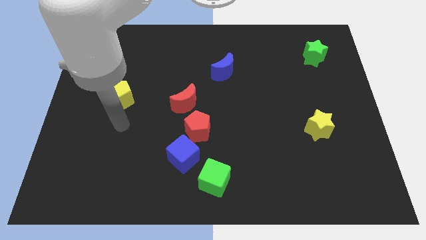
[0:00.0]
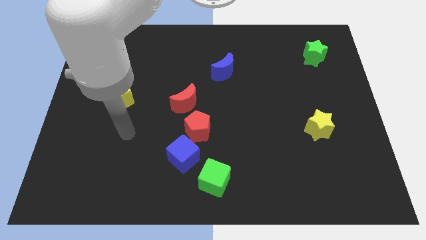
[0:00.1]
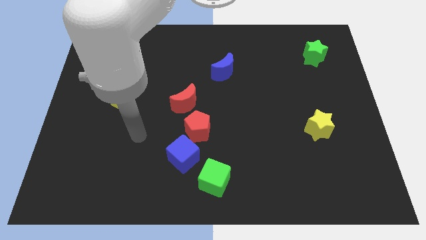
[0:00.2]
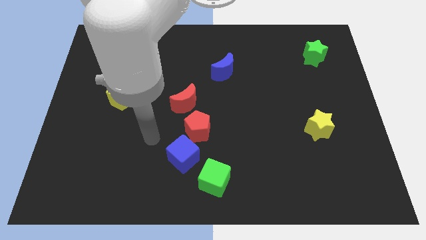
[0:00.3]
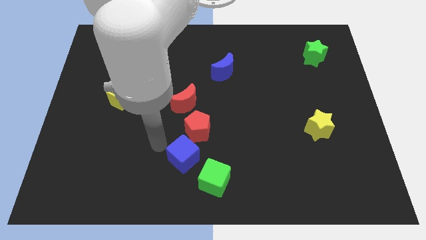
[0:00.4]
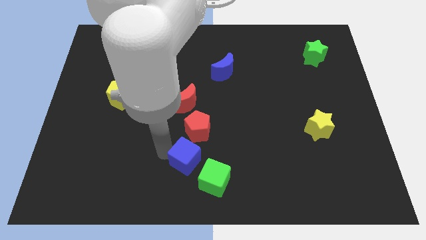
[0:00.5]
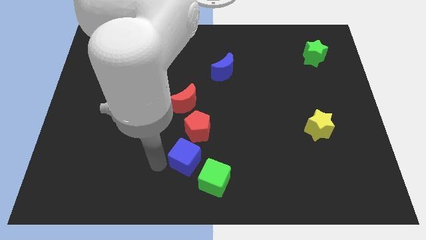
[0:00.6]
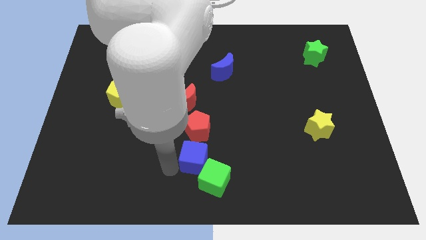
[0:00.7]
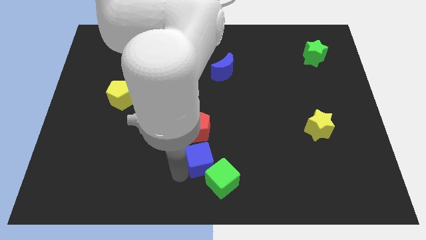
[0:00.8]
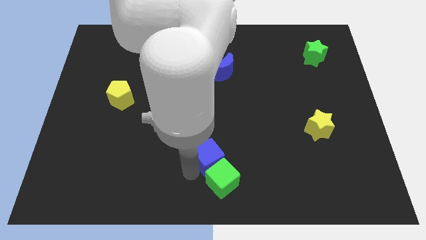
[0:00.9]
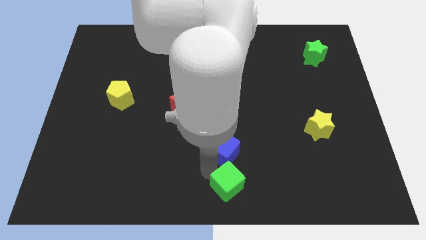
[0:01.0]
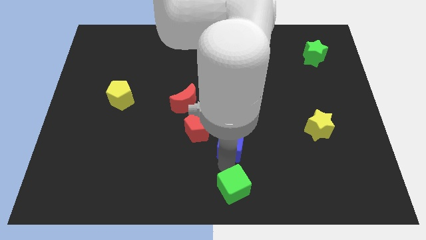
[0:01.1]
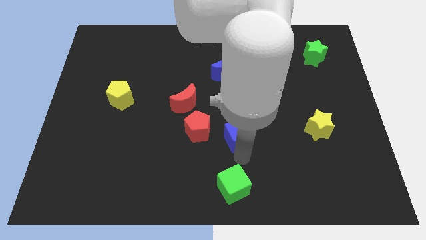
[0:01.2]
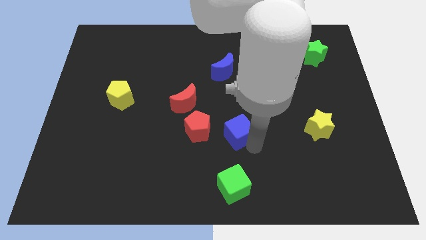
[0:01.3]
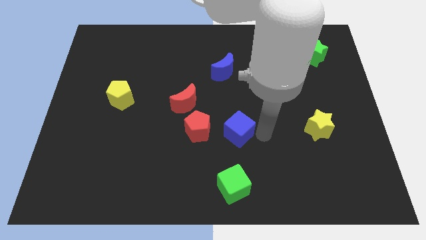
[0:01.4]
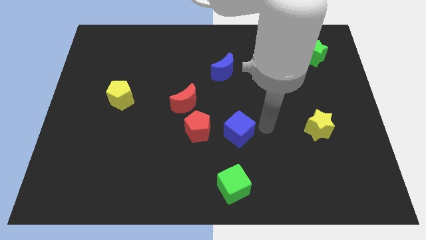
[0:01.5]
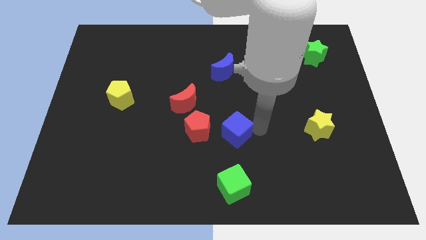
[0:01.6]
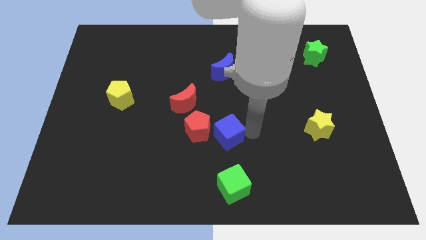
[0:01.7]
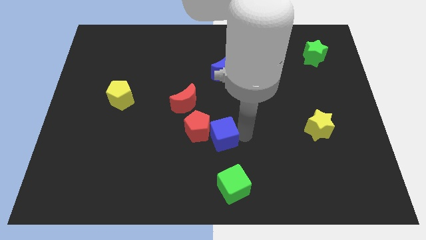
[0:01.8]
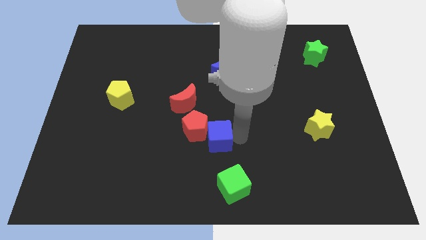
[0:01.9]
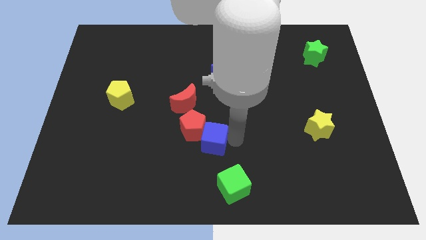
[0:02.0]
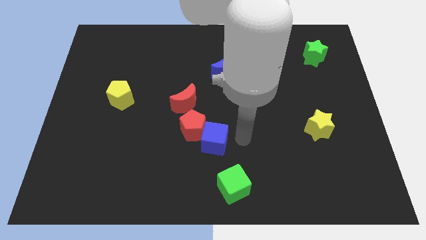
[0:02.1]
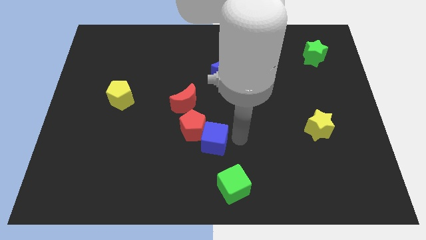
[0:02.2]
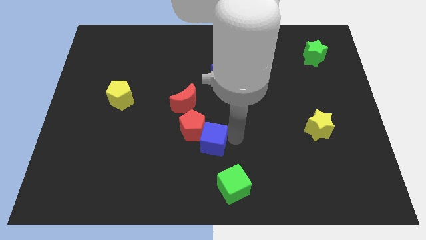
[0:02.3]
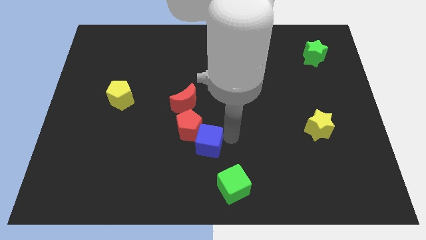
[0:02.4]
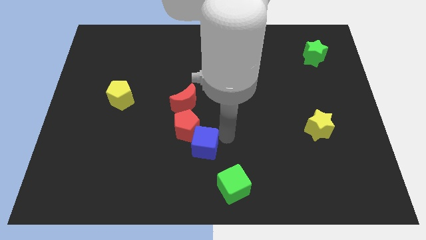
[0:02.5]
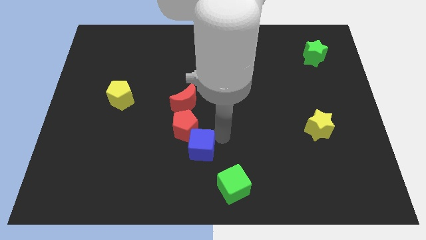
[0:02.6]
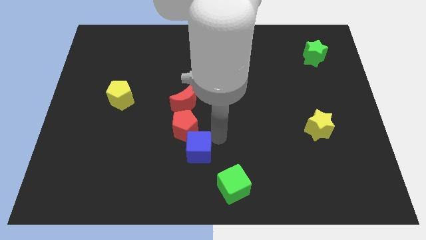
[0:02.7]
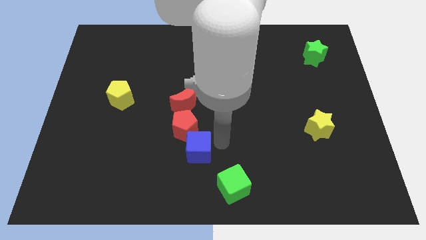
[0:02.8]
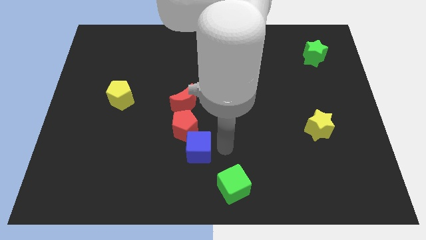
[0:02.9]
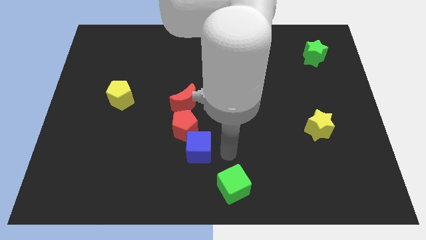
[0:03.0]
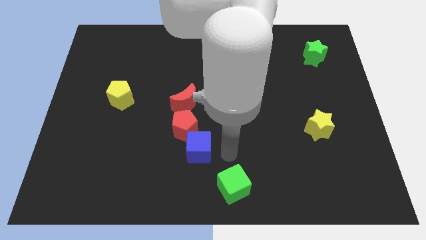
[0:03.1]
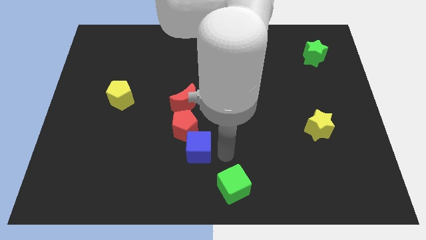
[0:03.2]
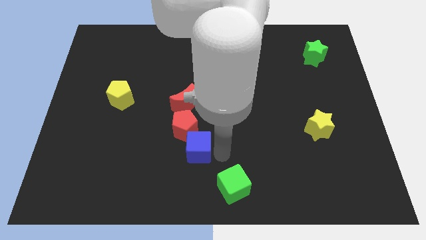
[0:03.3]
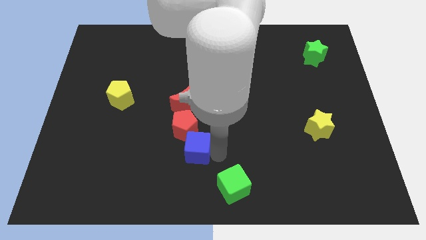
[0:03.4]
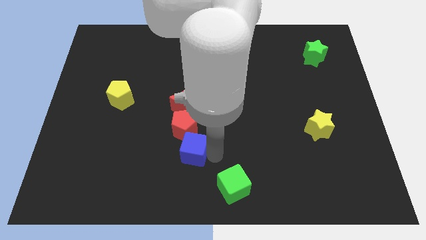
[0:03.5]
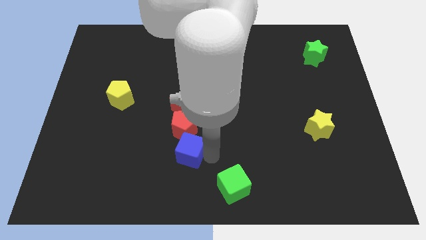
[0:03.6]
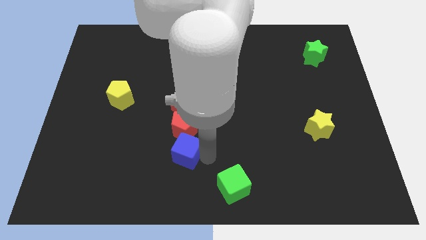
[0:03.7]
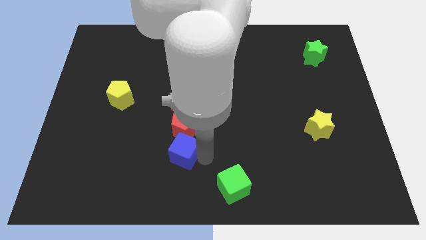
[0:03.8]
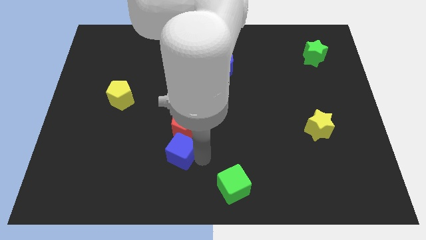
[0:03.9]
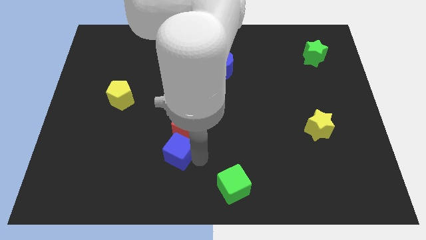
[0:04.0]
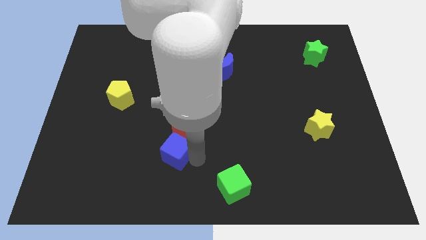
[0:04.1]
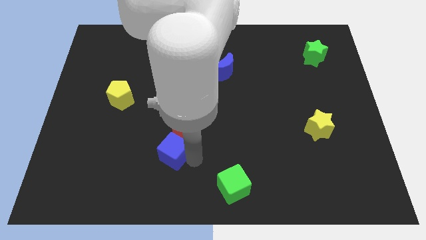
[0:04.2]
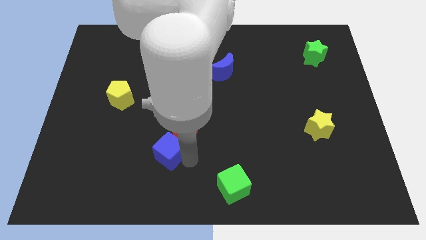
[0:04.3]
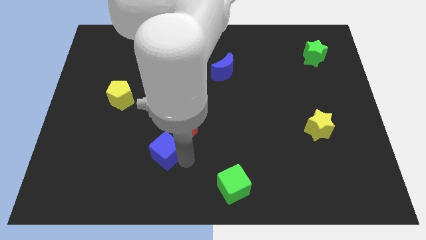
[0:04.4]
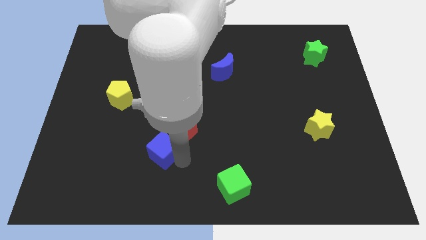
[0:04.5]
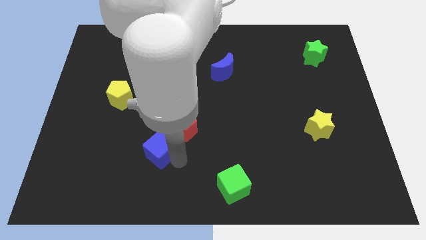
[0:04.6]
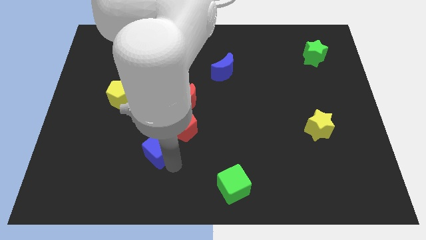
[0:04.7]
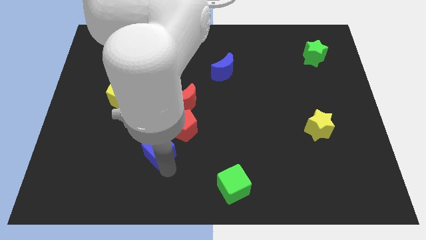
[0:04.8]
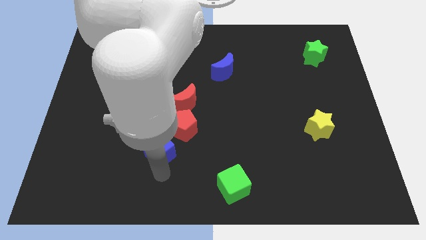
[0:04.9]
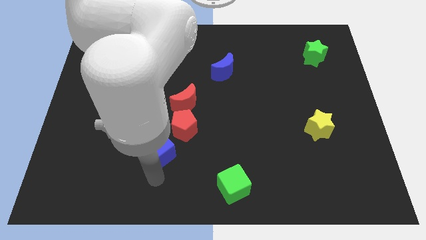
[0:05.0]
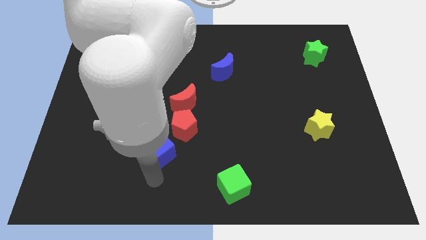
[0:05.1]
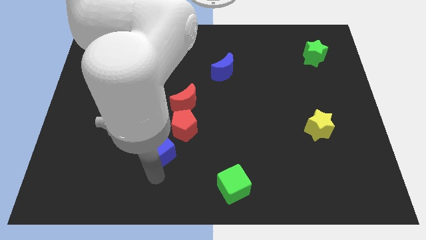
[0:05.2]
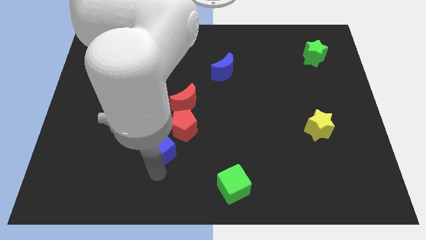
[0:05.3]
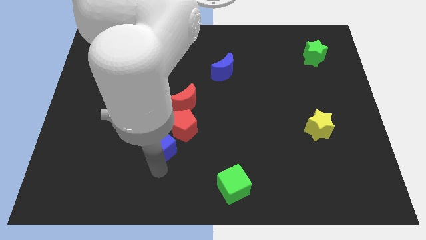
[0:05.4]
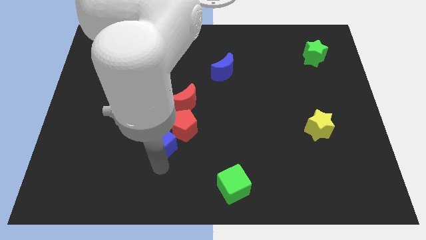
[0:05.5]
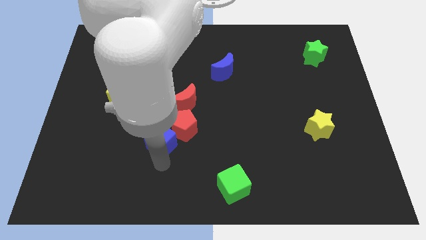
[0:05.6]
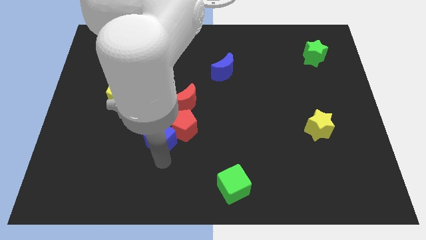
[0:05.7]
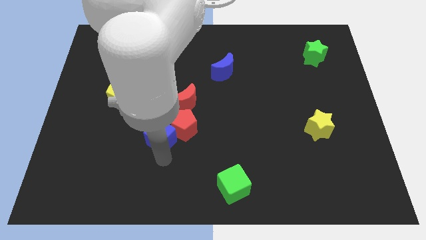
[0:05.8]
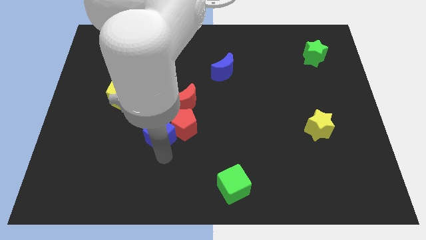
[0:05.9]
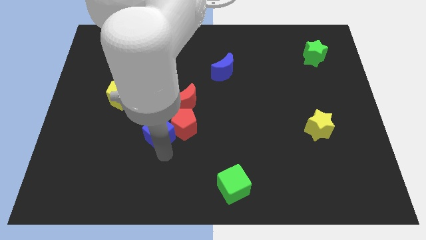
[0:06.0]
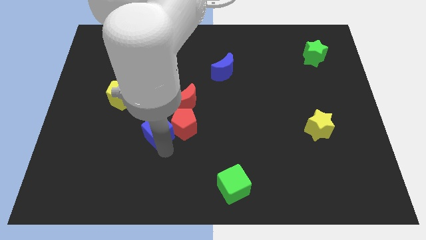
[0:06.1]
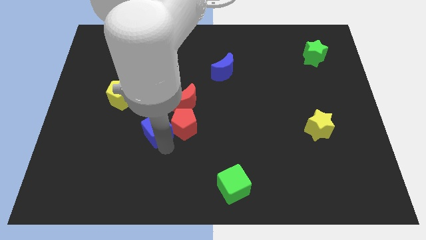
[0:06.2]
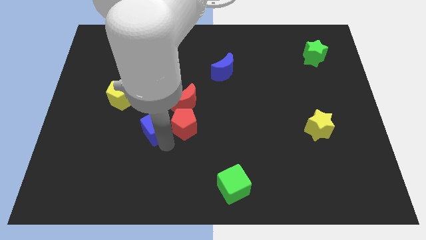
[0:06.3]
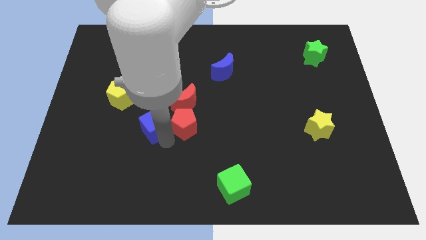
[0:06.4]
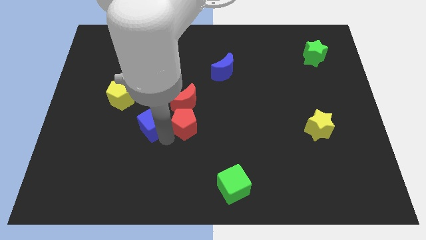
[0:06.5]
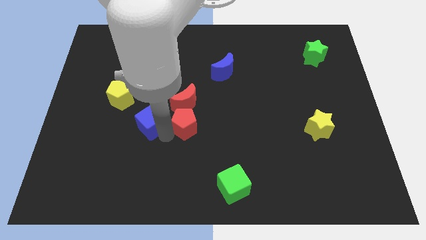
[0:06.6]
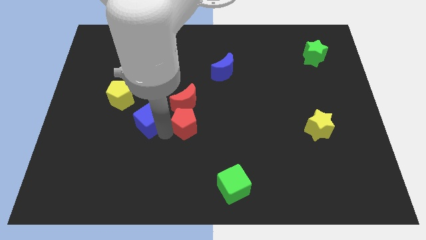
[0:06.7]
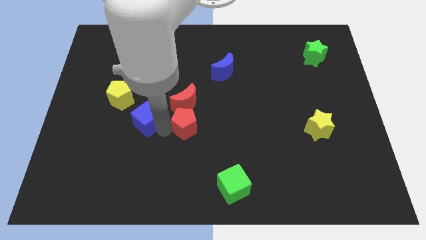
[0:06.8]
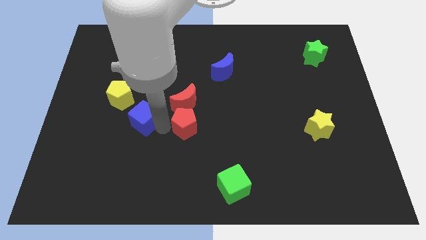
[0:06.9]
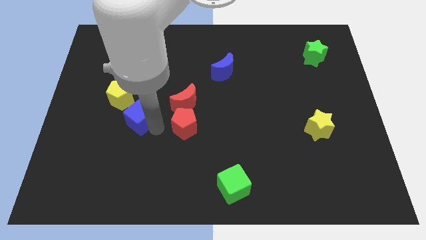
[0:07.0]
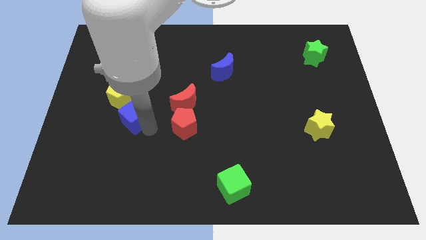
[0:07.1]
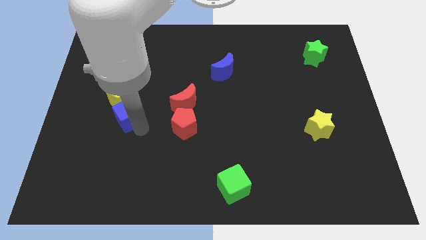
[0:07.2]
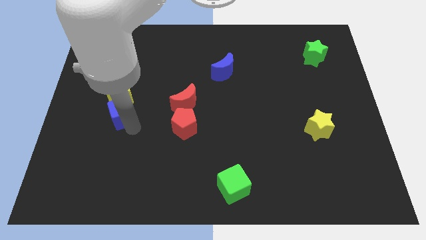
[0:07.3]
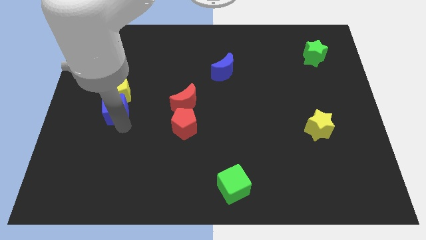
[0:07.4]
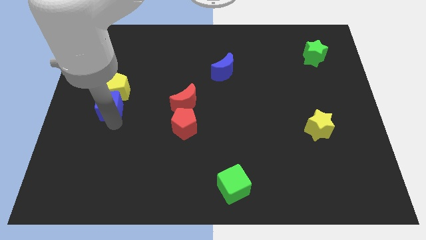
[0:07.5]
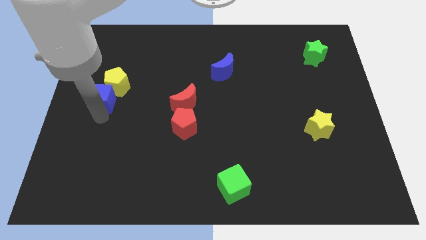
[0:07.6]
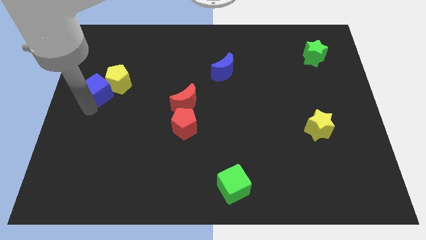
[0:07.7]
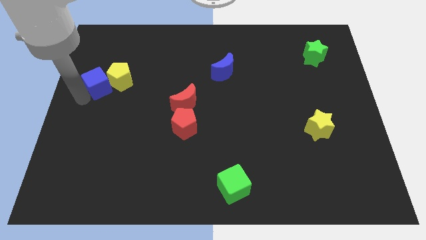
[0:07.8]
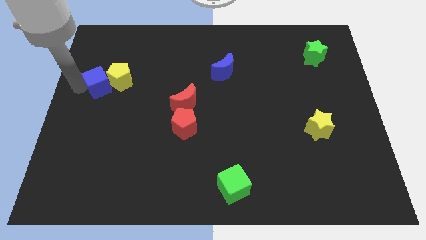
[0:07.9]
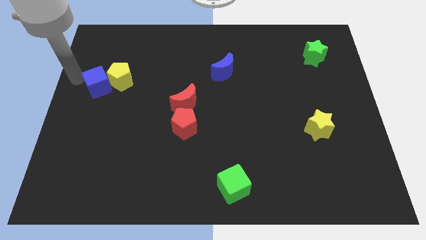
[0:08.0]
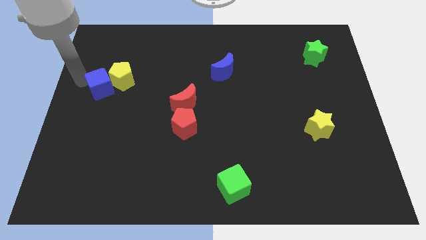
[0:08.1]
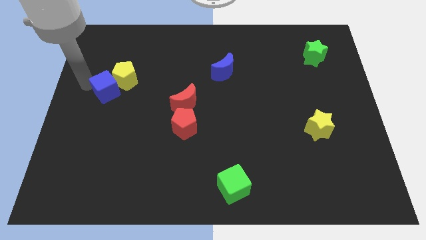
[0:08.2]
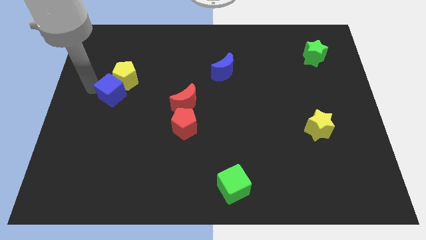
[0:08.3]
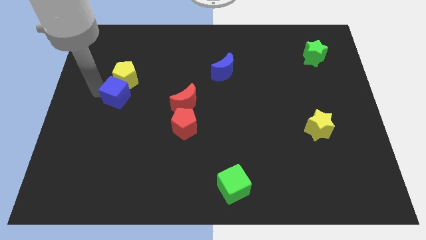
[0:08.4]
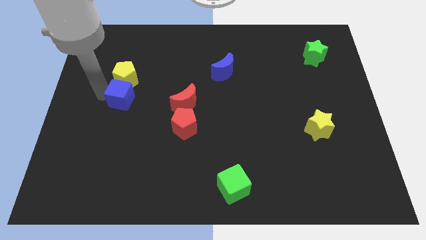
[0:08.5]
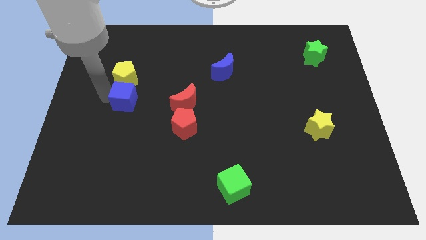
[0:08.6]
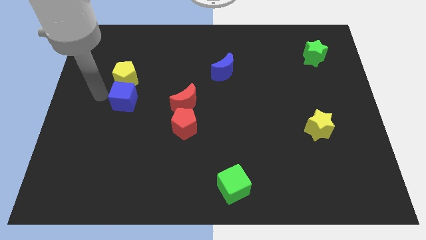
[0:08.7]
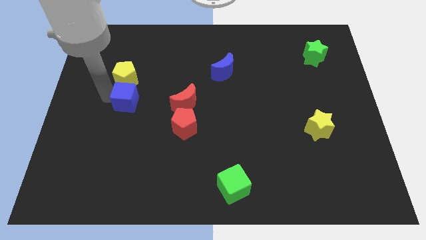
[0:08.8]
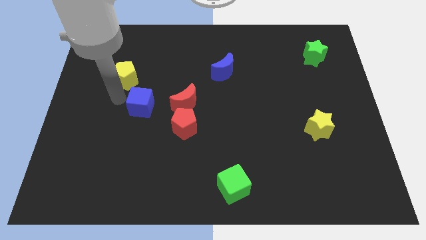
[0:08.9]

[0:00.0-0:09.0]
slide the blue cube a little bit upwards
